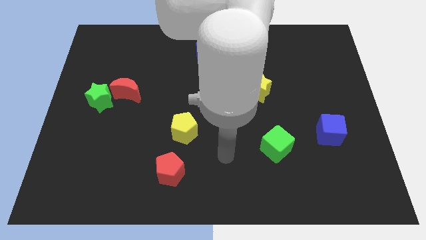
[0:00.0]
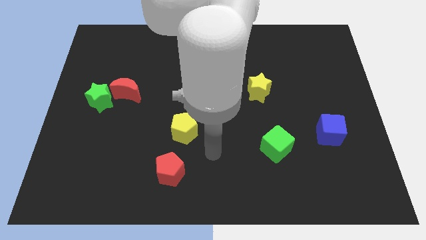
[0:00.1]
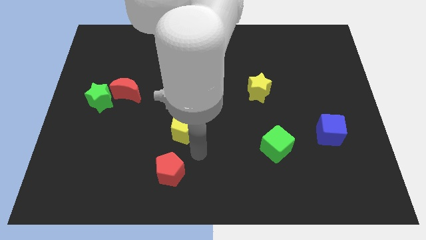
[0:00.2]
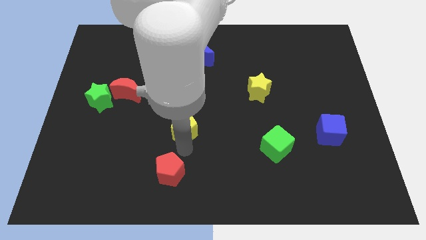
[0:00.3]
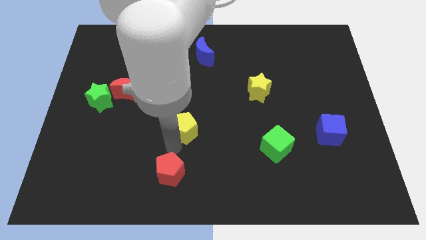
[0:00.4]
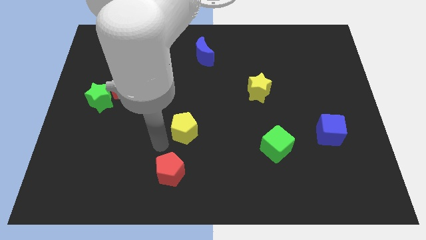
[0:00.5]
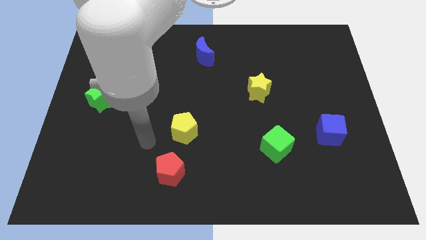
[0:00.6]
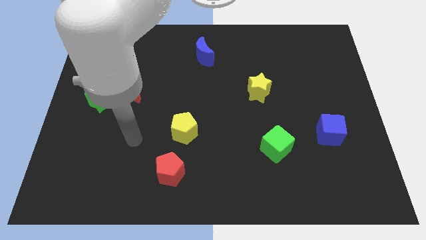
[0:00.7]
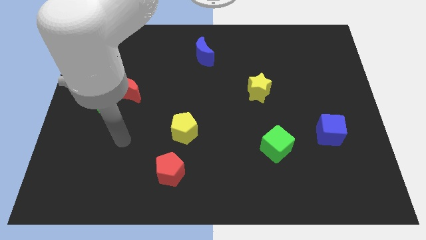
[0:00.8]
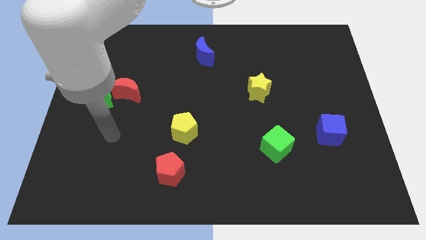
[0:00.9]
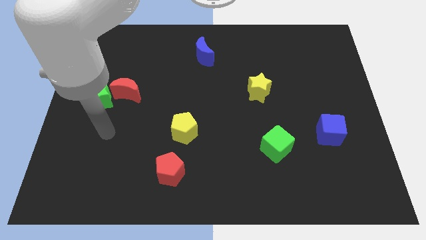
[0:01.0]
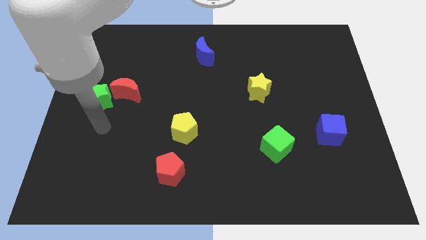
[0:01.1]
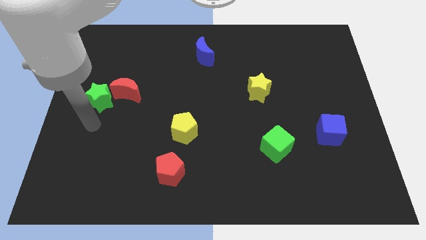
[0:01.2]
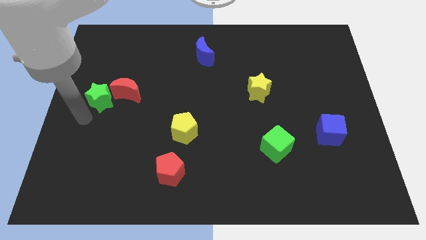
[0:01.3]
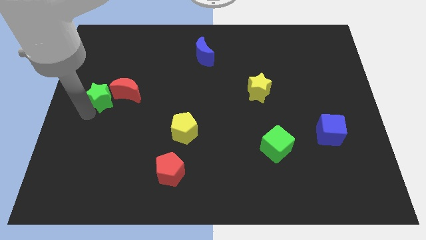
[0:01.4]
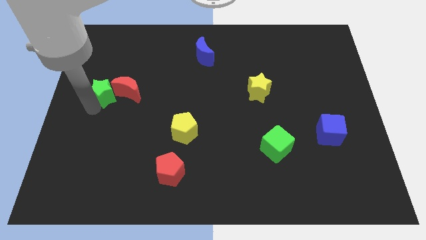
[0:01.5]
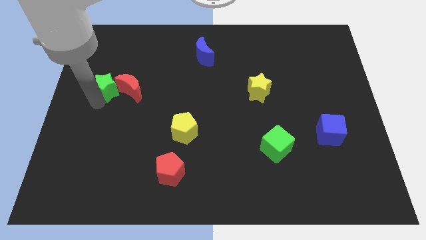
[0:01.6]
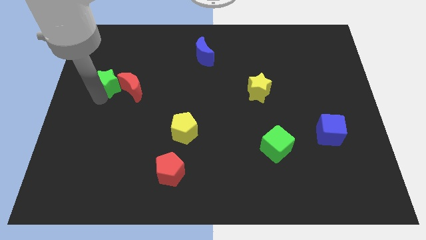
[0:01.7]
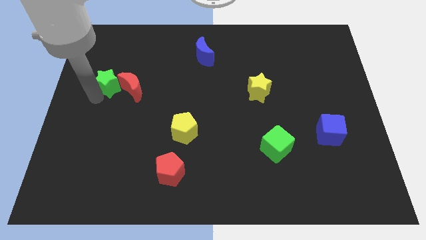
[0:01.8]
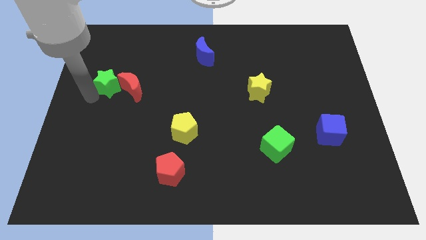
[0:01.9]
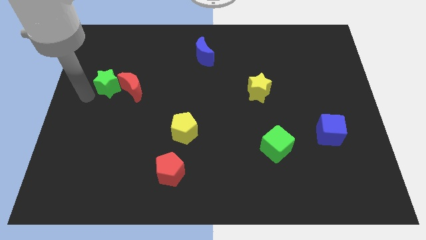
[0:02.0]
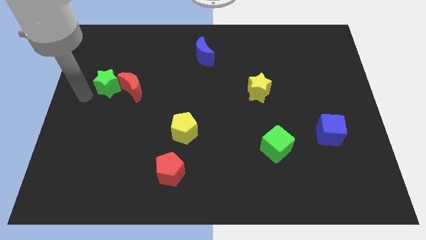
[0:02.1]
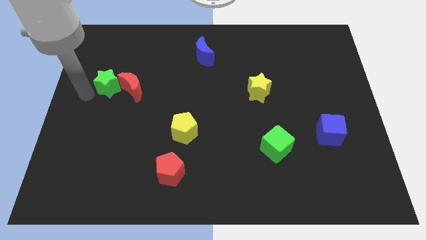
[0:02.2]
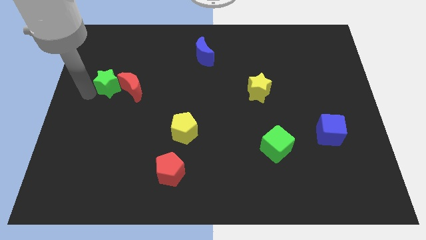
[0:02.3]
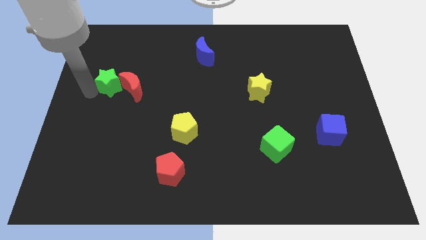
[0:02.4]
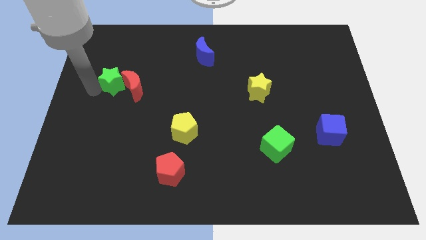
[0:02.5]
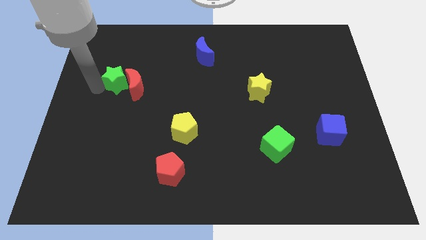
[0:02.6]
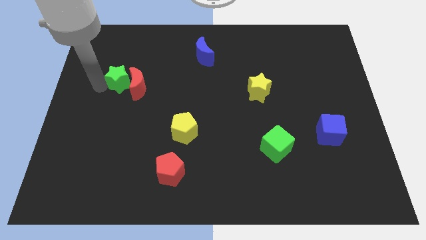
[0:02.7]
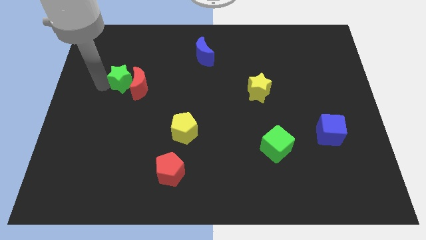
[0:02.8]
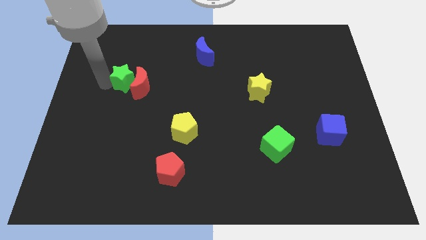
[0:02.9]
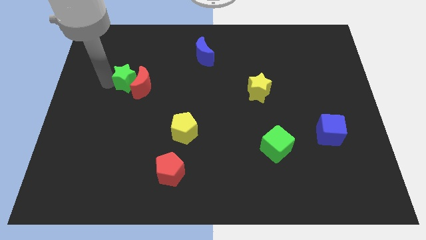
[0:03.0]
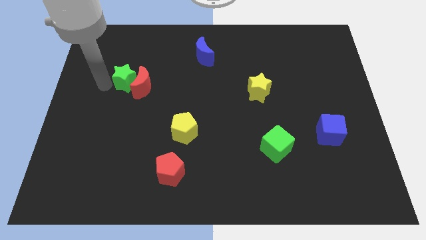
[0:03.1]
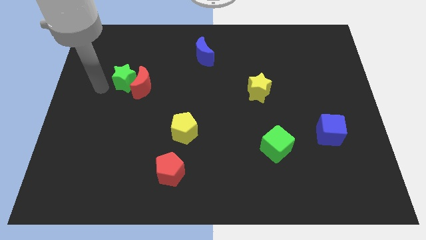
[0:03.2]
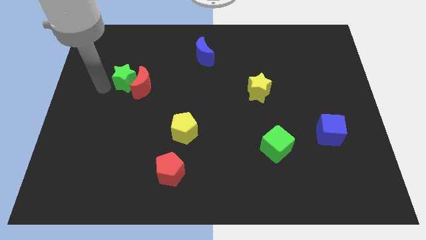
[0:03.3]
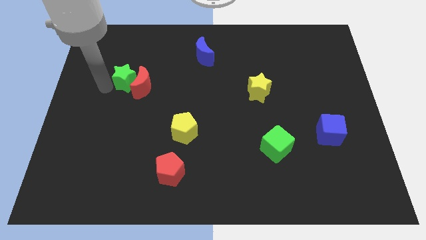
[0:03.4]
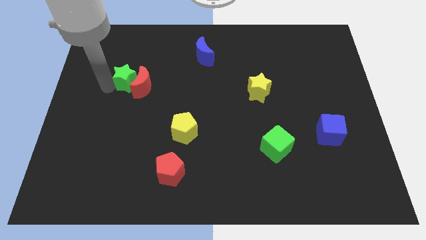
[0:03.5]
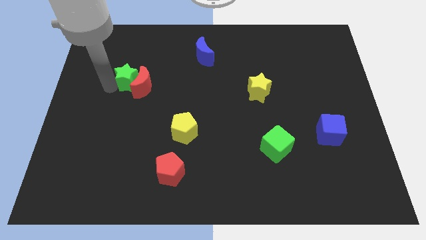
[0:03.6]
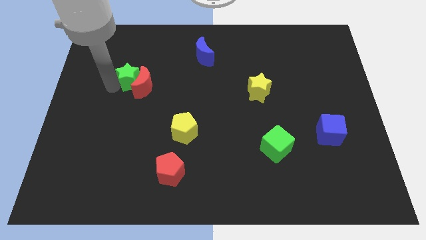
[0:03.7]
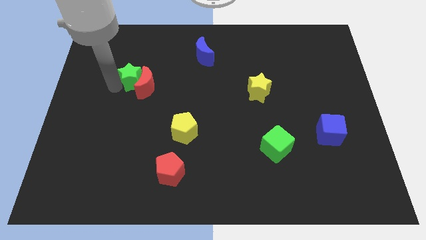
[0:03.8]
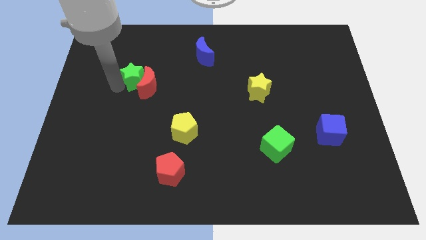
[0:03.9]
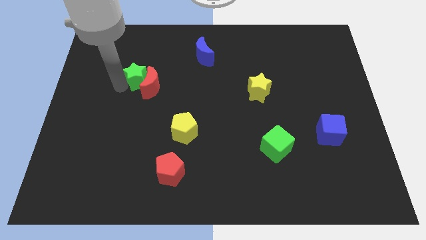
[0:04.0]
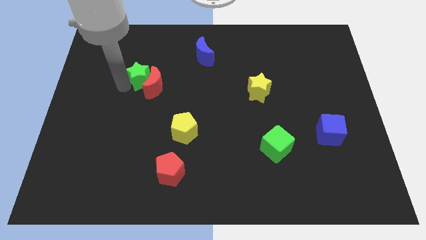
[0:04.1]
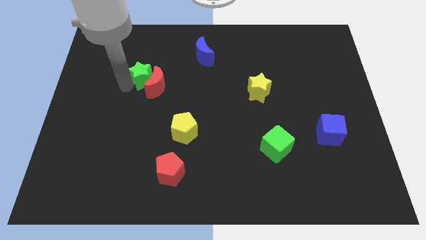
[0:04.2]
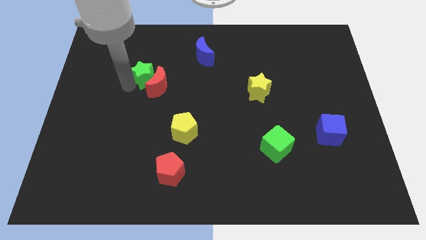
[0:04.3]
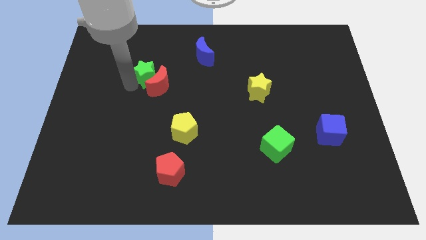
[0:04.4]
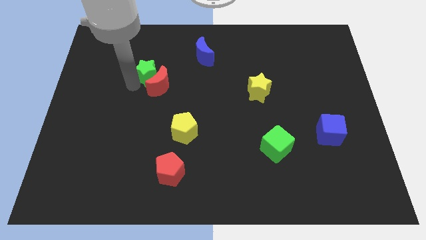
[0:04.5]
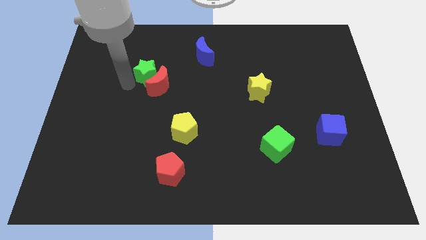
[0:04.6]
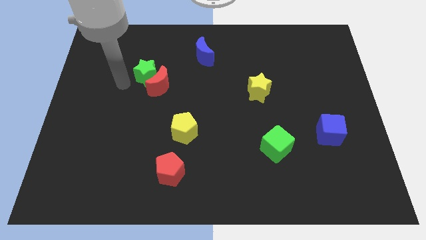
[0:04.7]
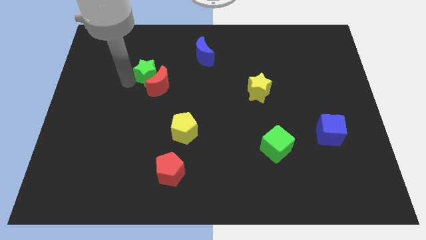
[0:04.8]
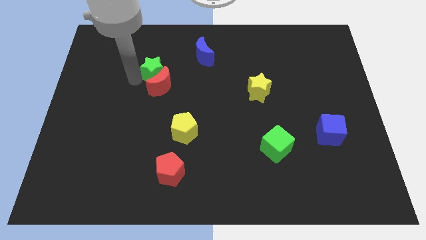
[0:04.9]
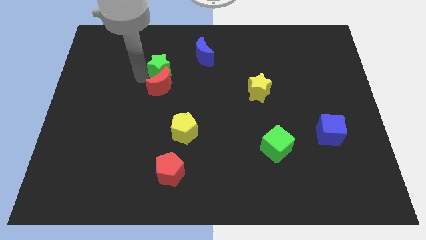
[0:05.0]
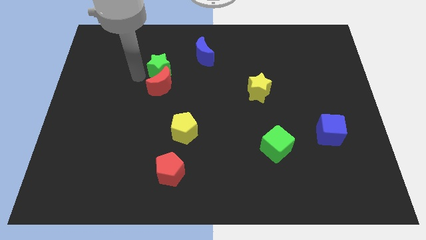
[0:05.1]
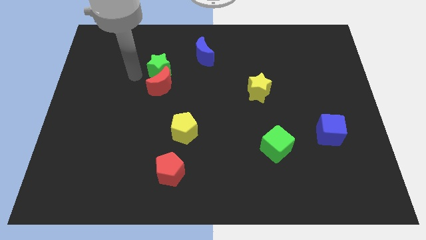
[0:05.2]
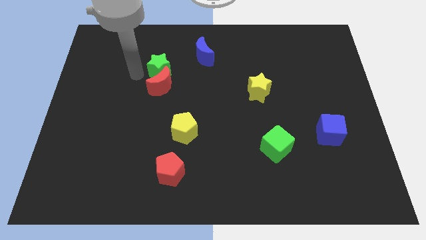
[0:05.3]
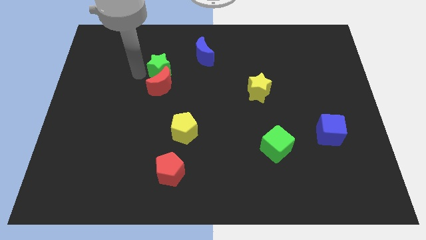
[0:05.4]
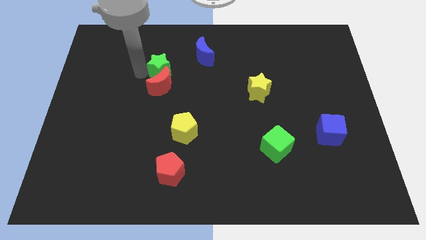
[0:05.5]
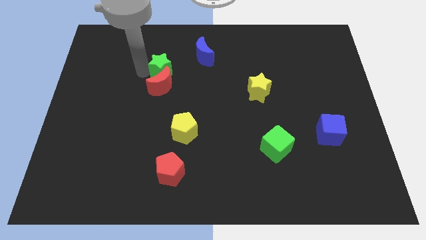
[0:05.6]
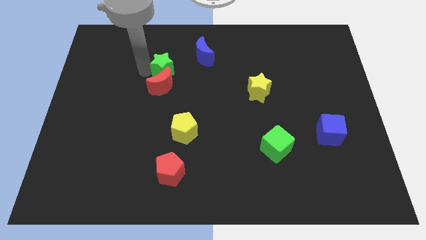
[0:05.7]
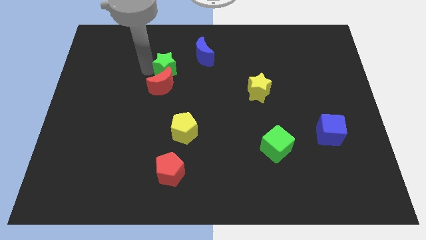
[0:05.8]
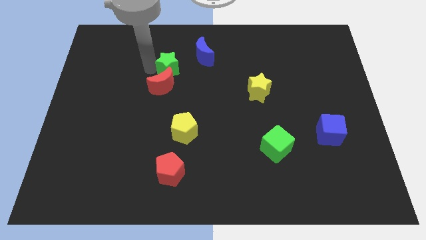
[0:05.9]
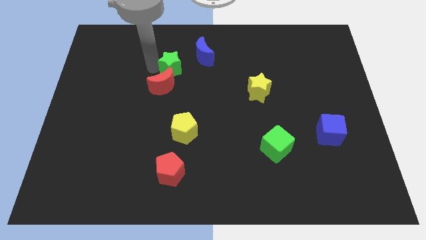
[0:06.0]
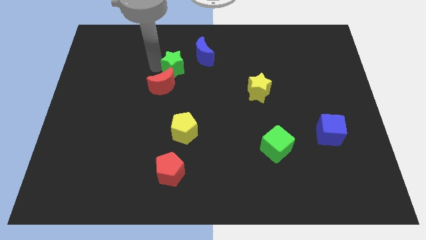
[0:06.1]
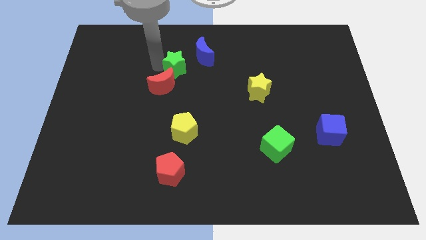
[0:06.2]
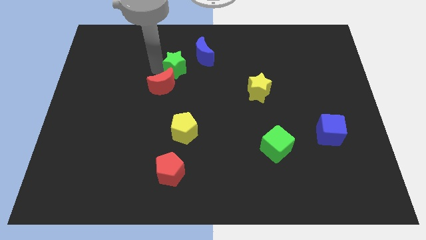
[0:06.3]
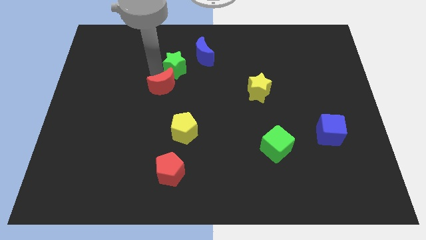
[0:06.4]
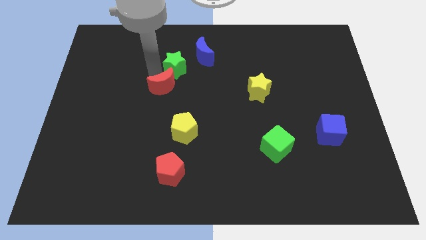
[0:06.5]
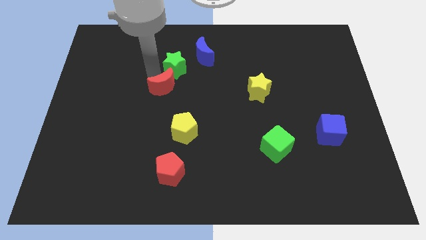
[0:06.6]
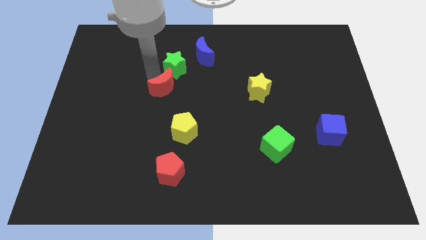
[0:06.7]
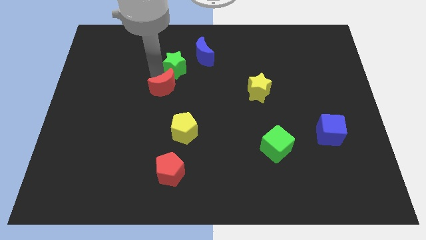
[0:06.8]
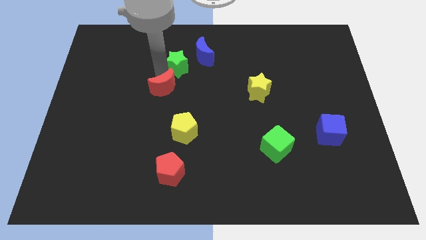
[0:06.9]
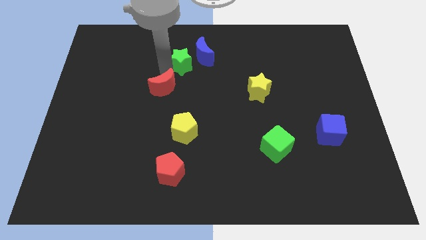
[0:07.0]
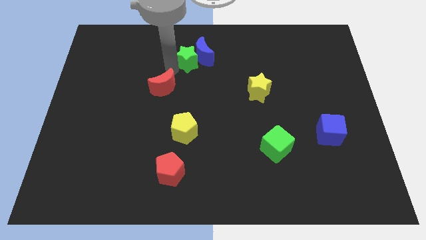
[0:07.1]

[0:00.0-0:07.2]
put the green star next to the blue moon
